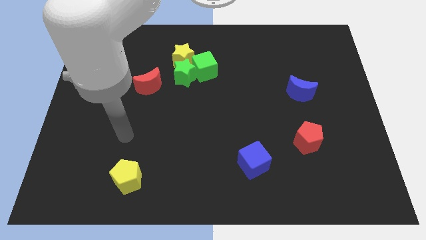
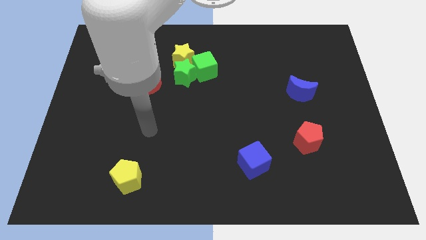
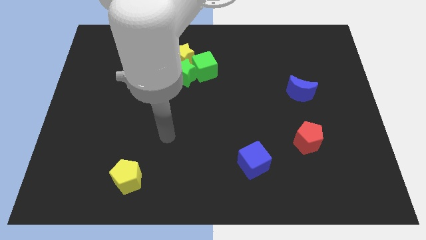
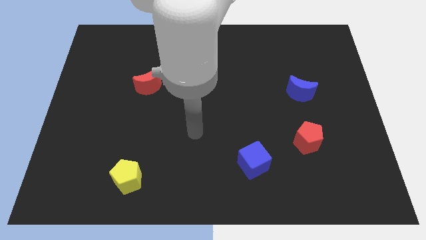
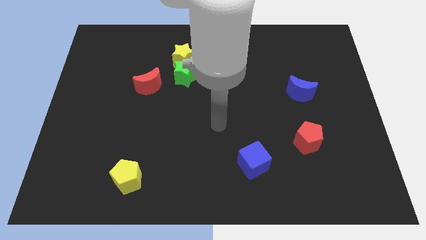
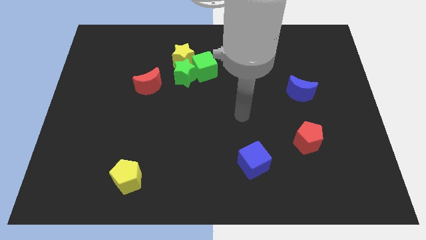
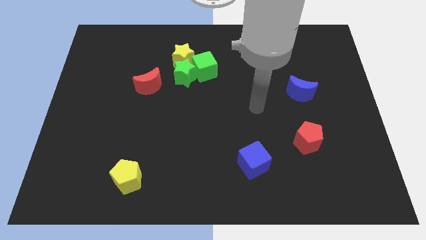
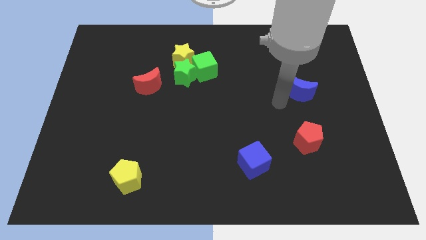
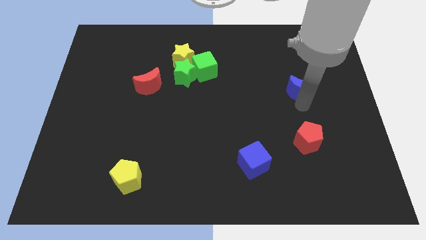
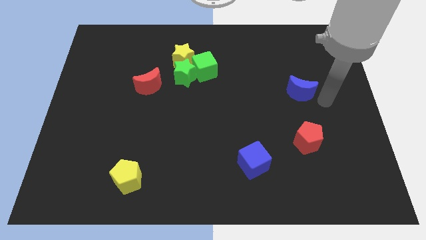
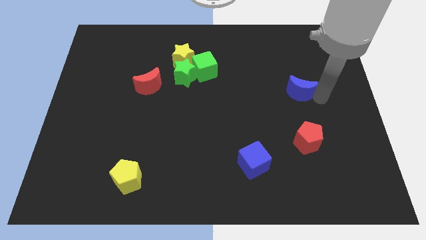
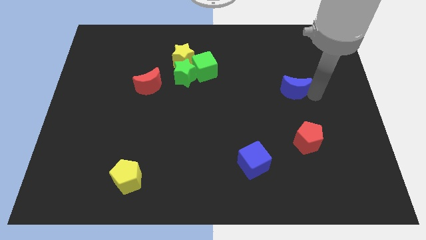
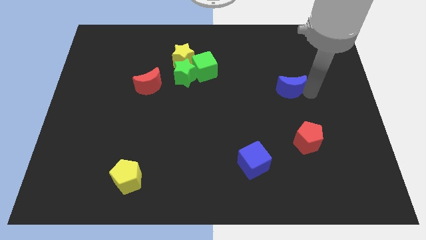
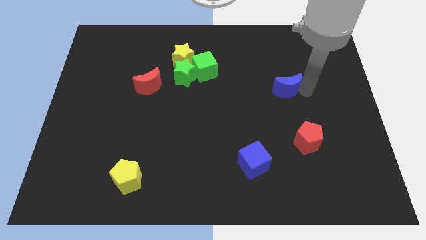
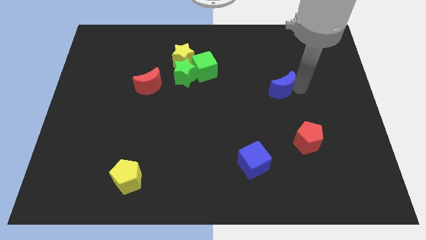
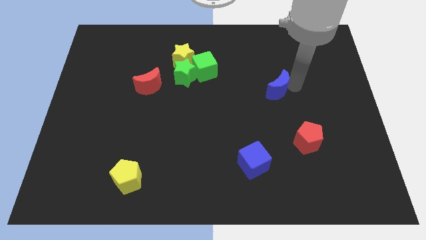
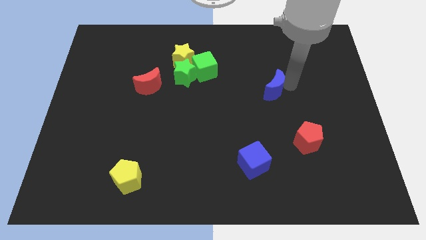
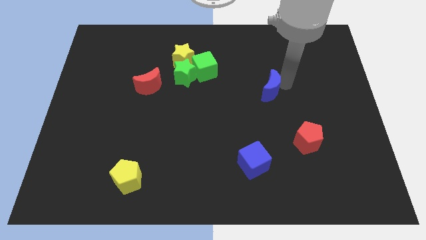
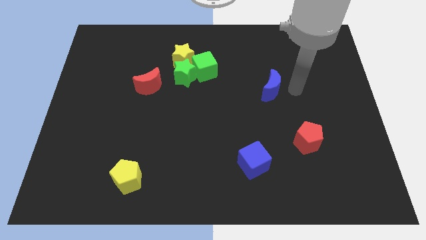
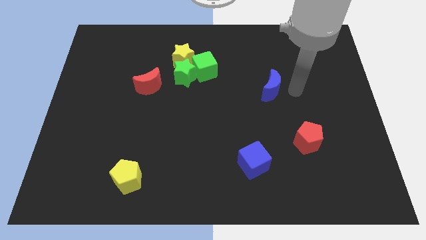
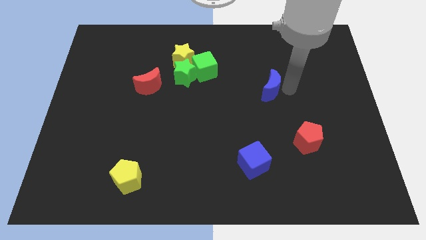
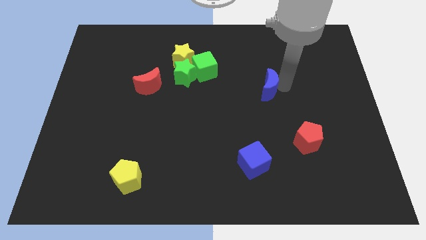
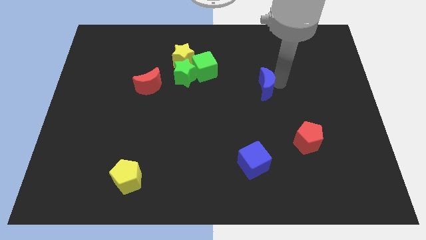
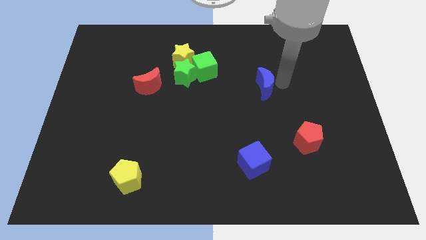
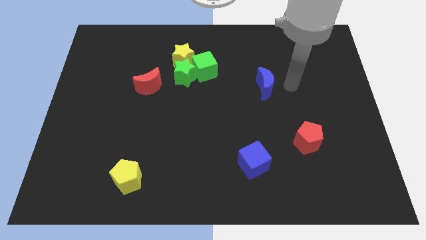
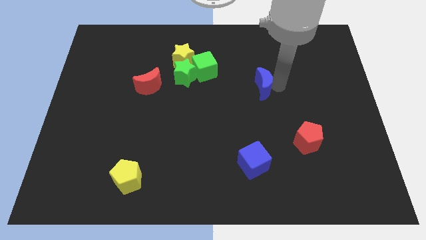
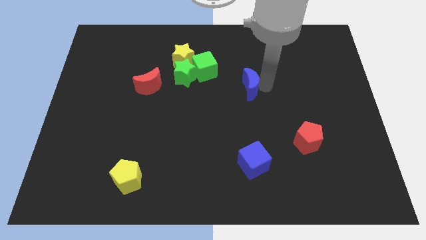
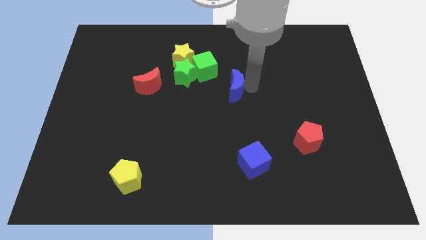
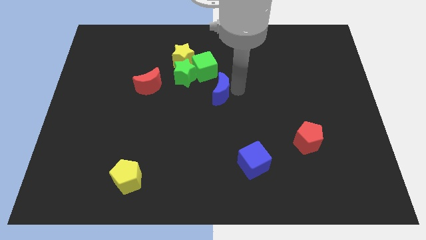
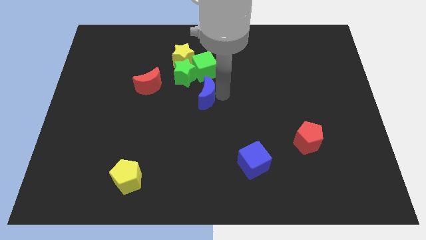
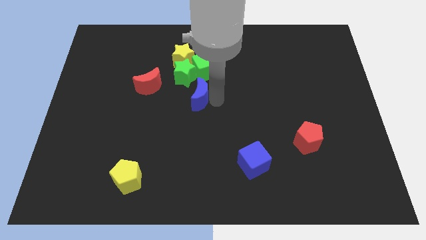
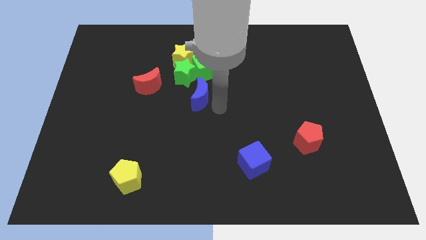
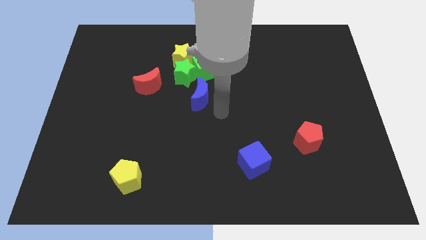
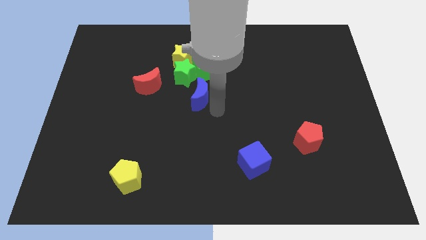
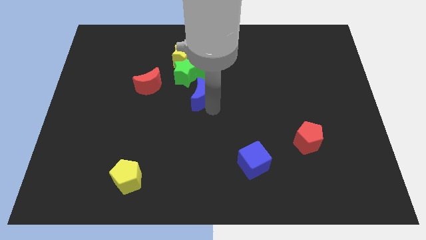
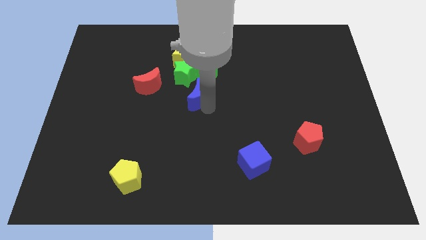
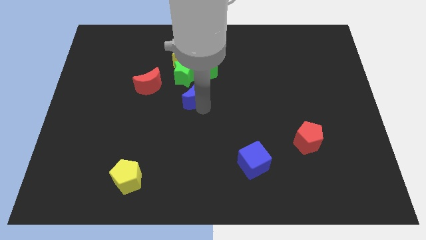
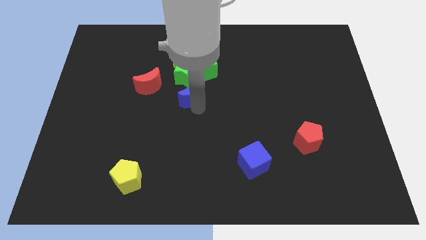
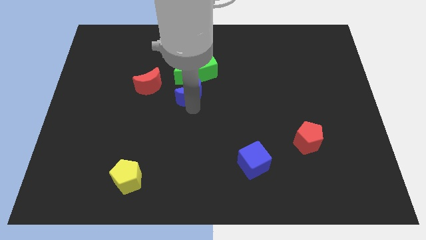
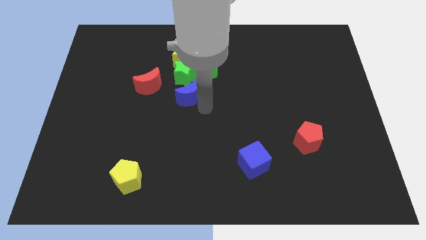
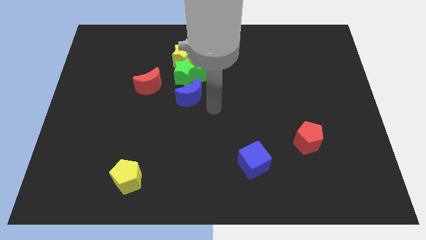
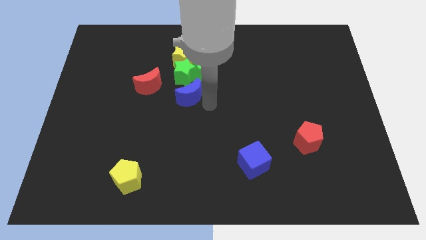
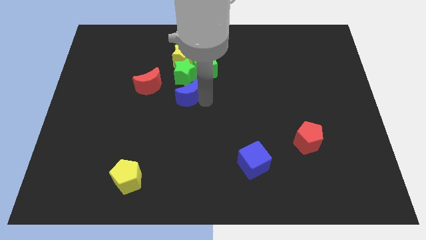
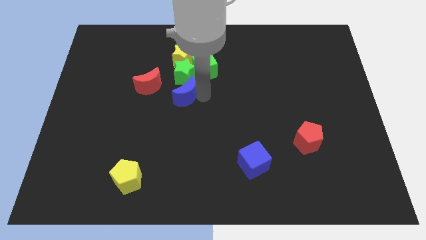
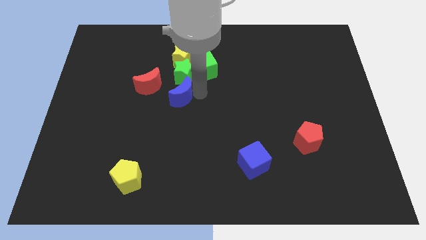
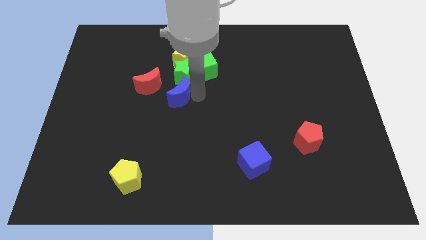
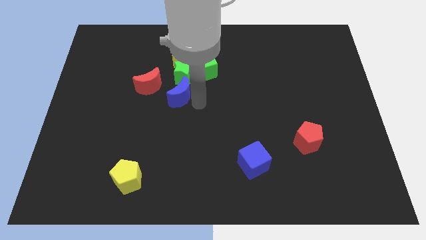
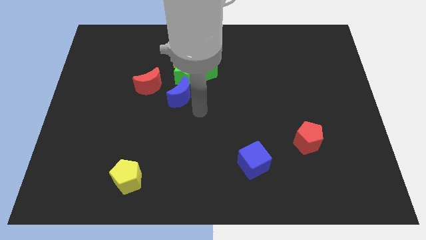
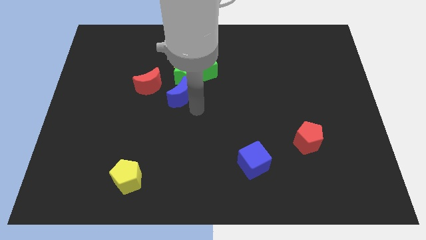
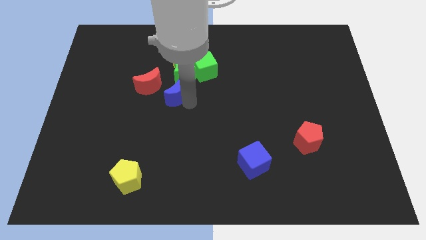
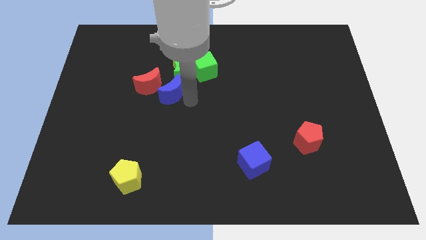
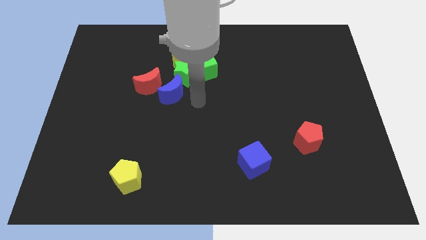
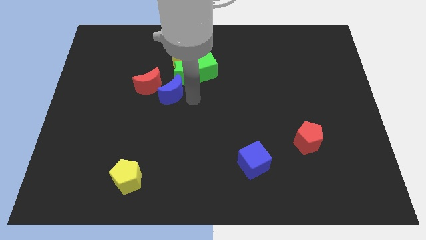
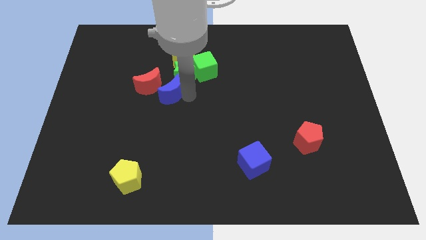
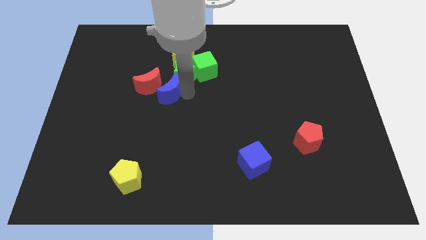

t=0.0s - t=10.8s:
put the blue moon close to the red moon

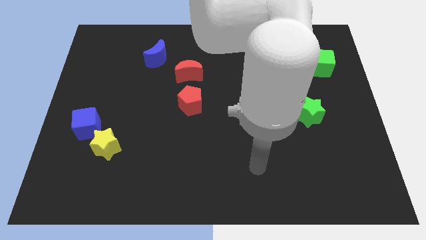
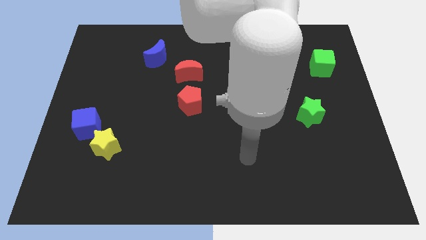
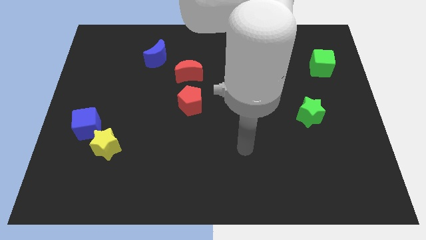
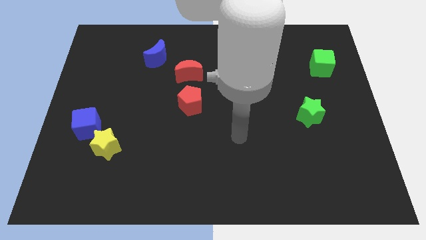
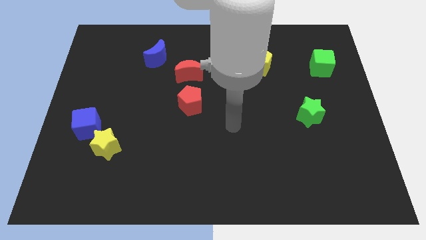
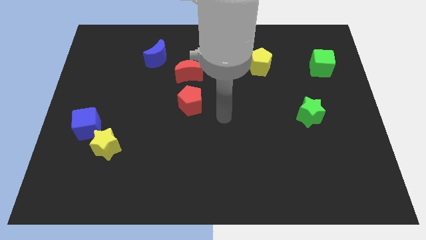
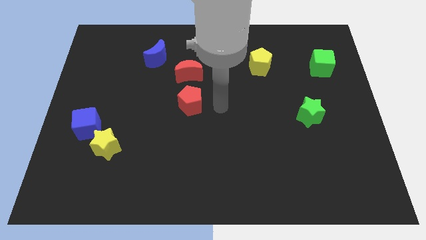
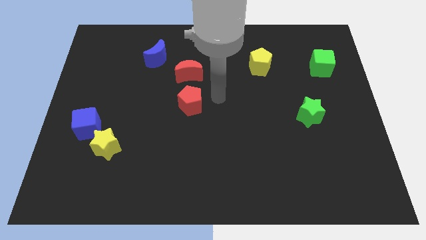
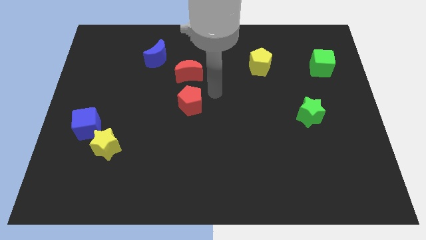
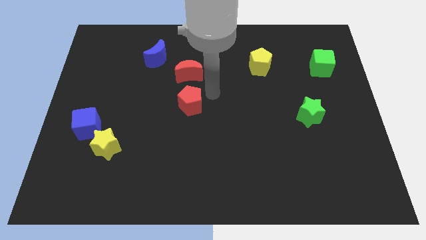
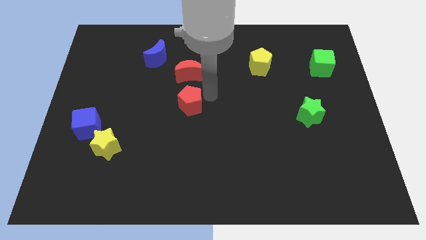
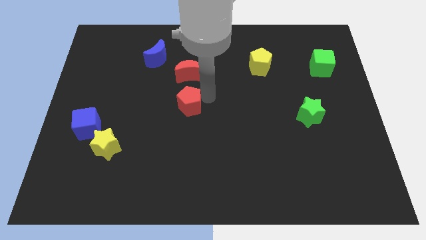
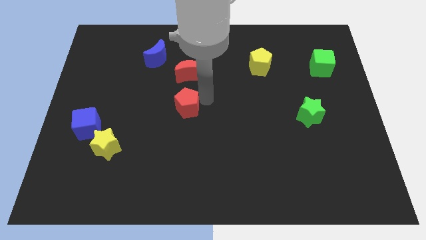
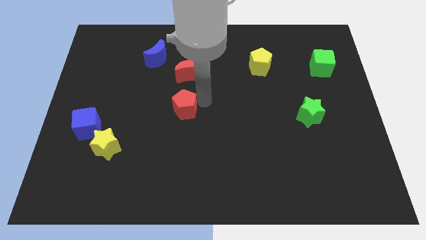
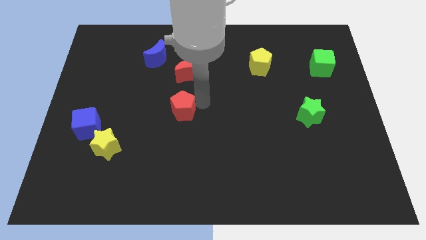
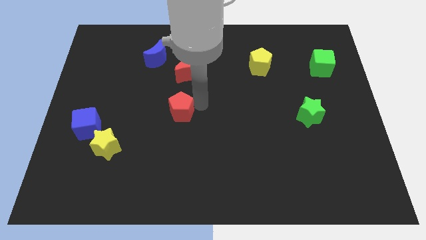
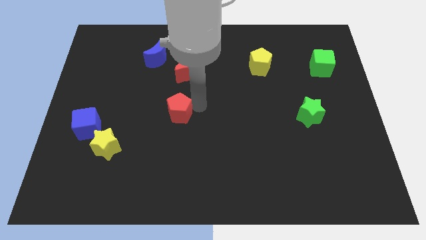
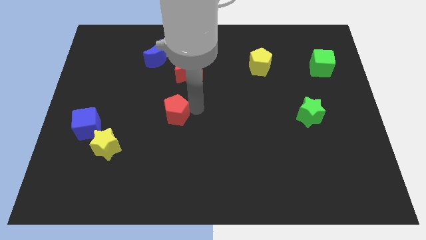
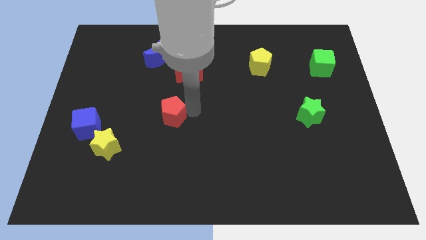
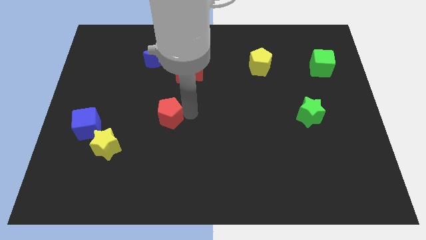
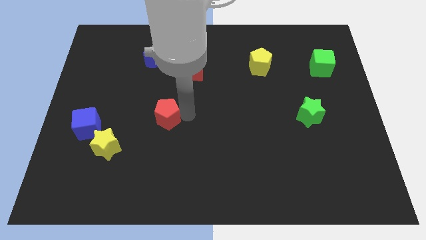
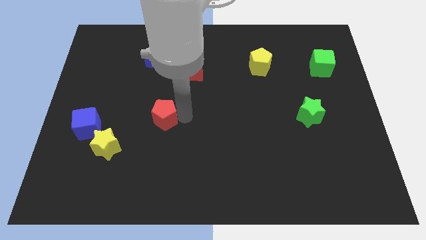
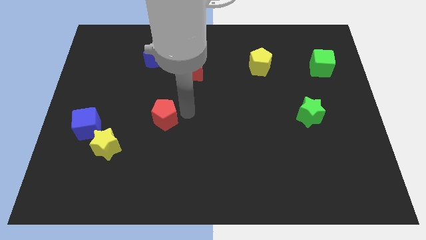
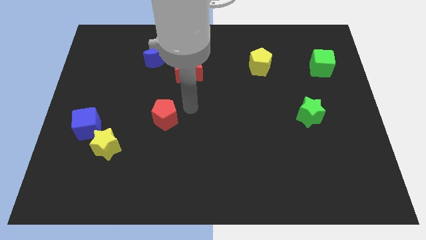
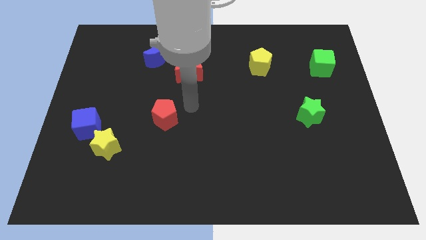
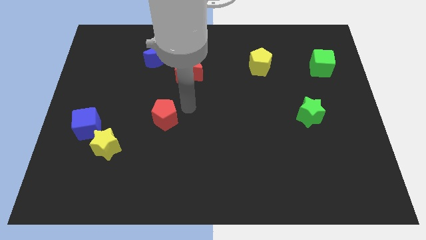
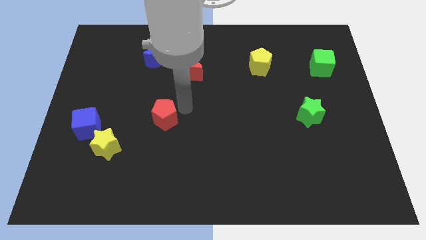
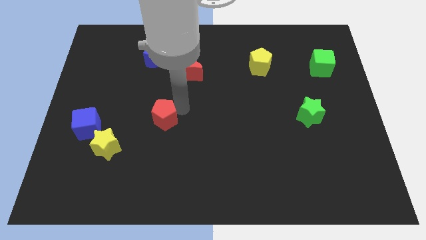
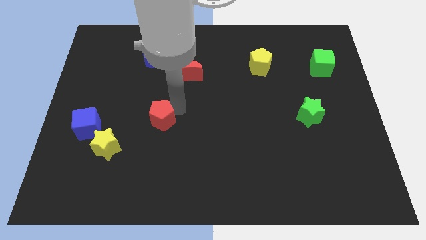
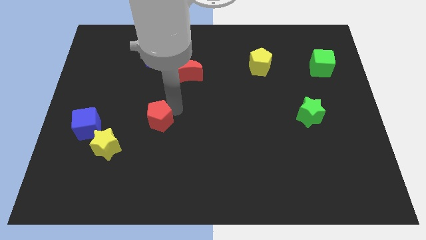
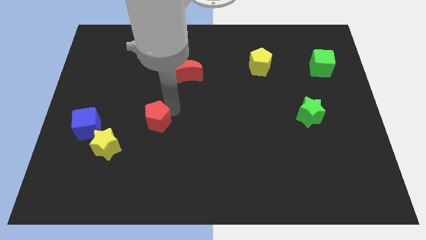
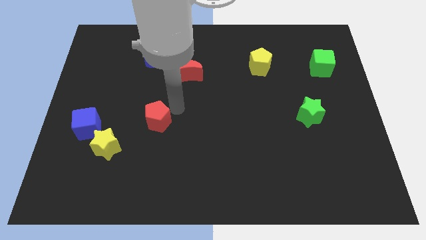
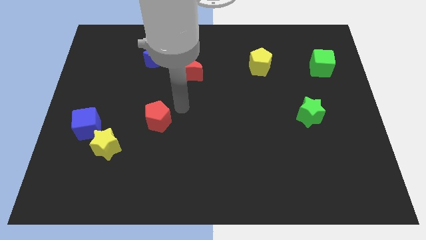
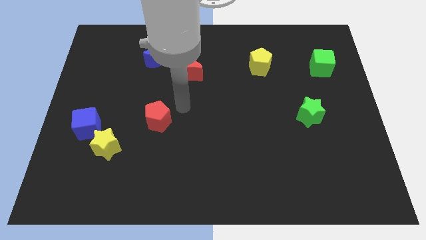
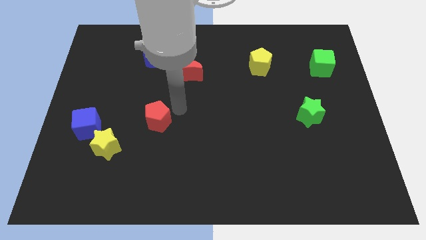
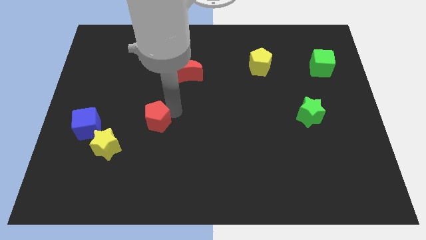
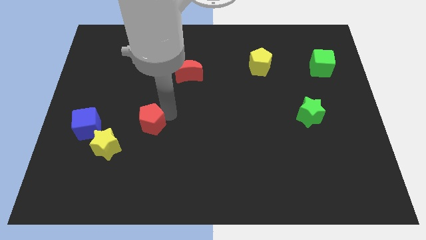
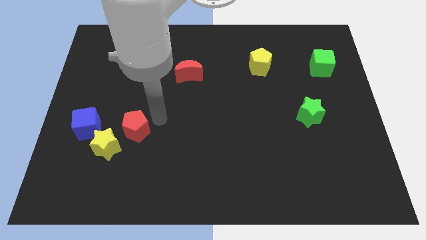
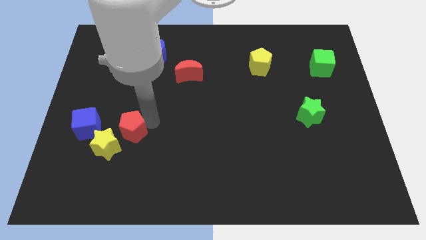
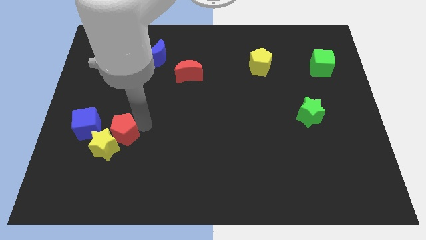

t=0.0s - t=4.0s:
slide the red pentagon next to the yellow star
